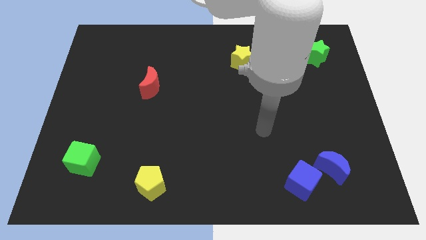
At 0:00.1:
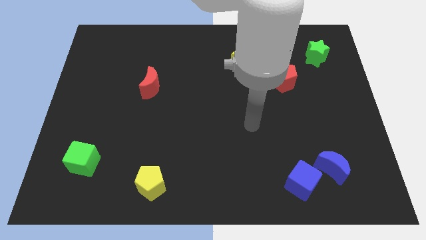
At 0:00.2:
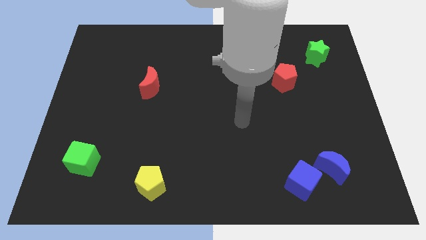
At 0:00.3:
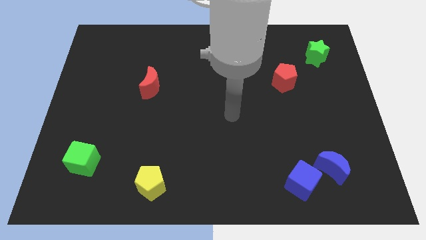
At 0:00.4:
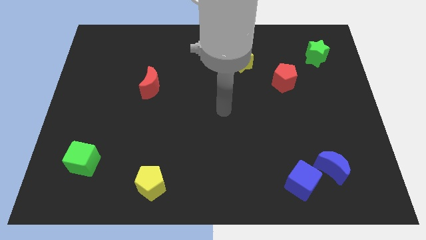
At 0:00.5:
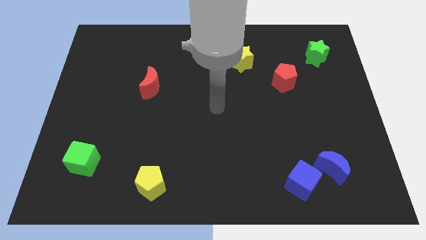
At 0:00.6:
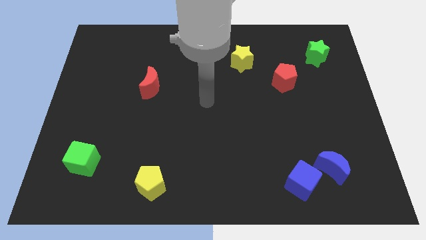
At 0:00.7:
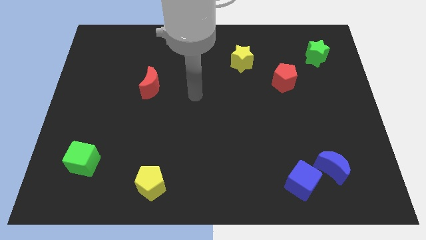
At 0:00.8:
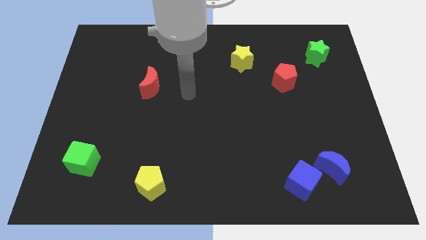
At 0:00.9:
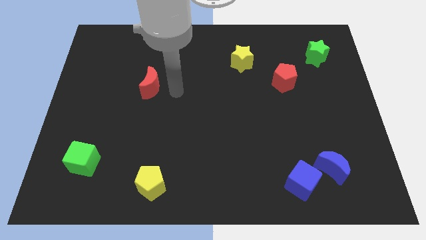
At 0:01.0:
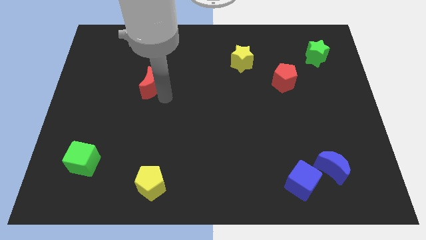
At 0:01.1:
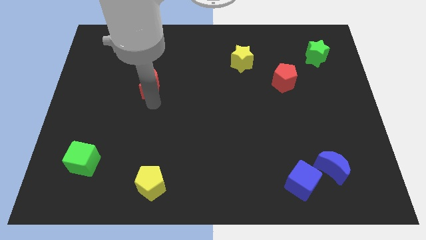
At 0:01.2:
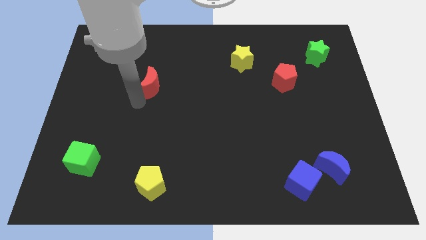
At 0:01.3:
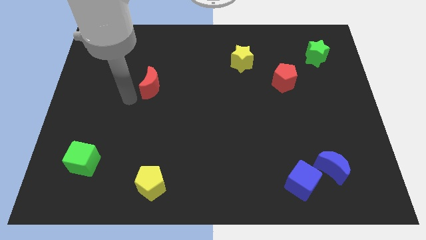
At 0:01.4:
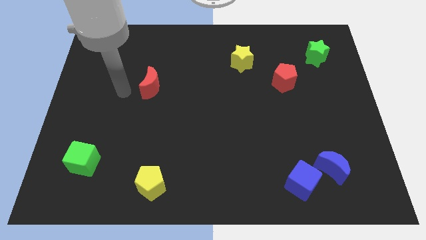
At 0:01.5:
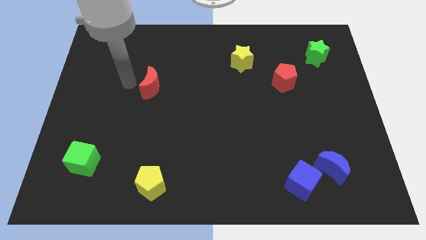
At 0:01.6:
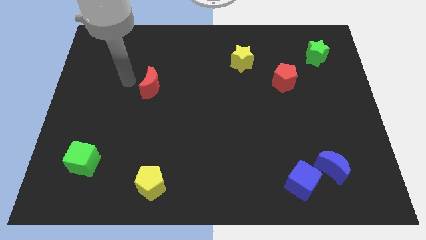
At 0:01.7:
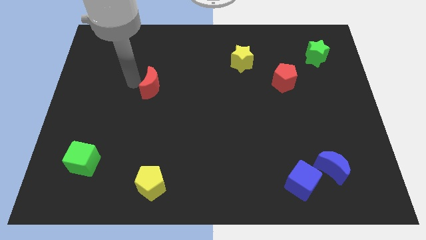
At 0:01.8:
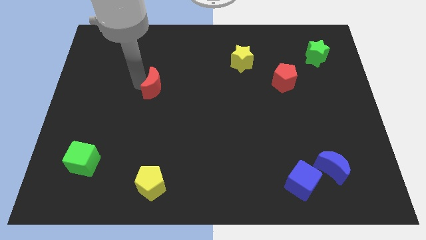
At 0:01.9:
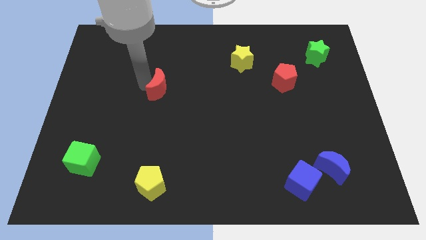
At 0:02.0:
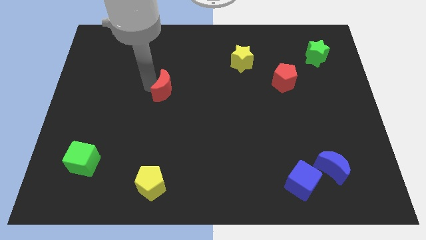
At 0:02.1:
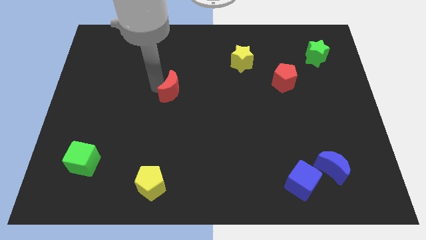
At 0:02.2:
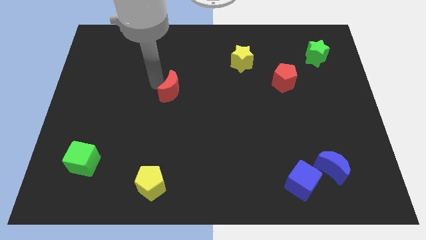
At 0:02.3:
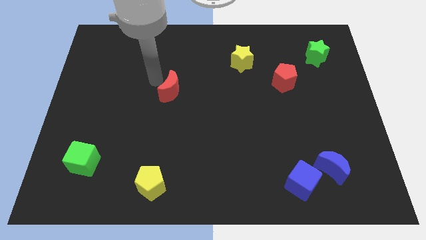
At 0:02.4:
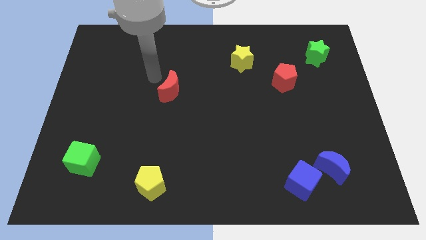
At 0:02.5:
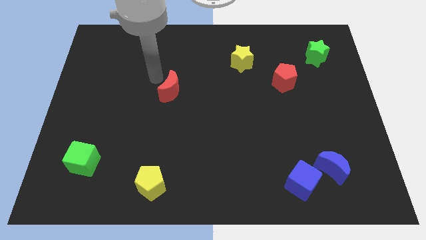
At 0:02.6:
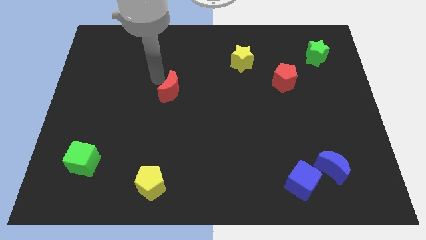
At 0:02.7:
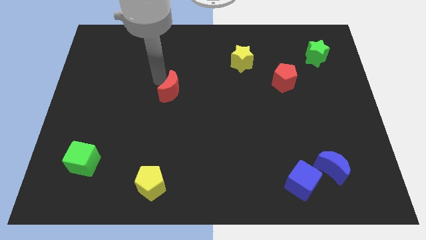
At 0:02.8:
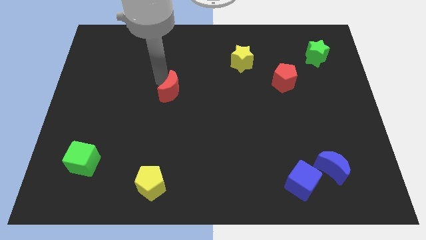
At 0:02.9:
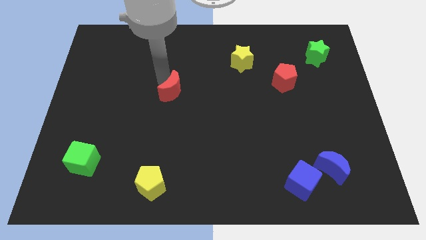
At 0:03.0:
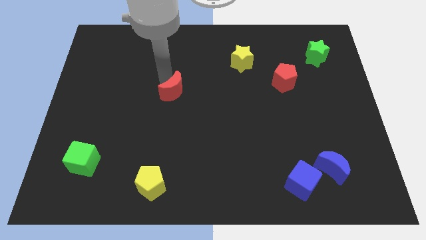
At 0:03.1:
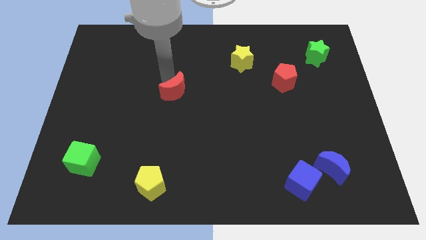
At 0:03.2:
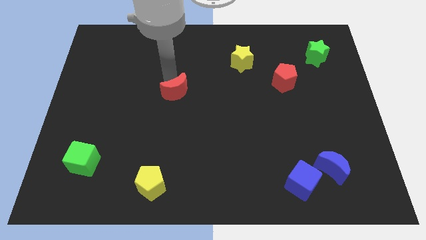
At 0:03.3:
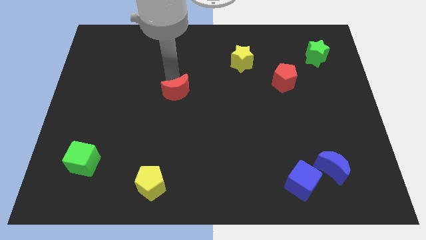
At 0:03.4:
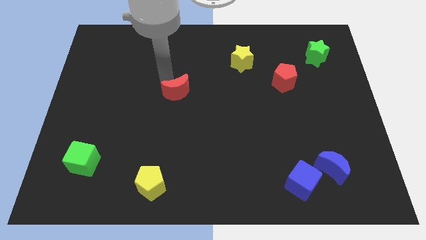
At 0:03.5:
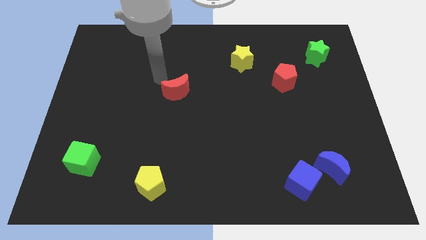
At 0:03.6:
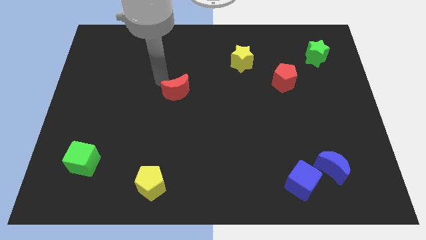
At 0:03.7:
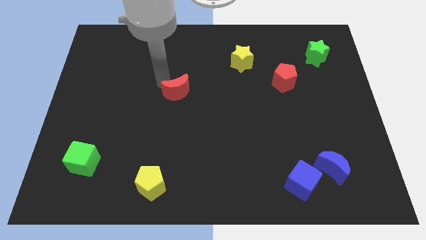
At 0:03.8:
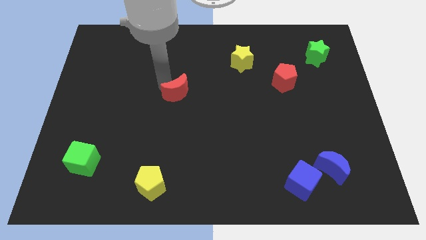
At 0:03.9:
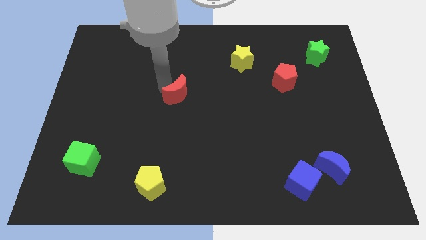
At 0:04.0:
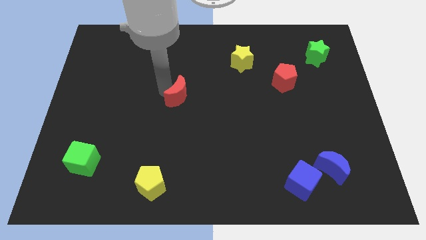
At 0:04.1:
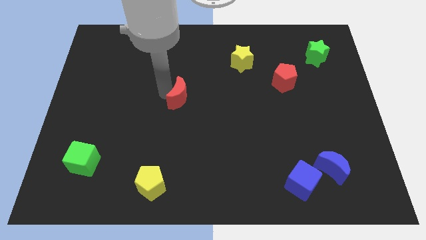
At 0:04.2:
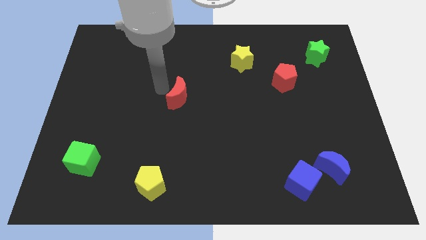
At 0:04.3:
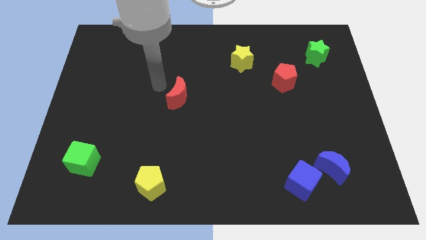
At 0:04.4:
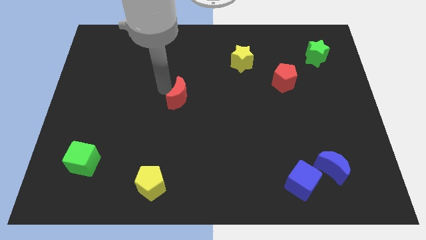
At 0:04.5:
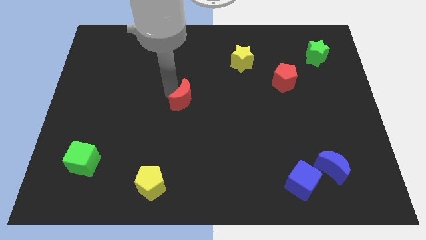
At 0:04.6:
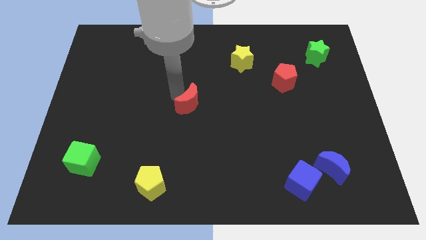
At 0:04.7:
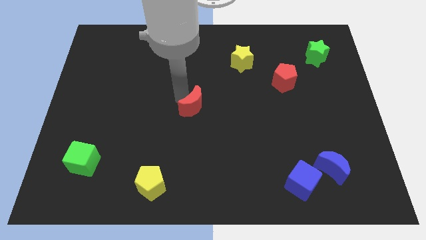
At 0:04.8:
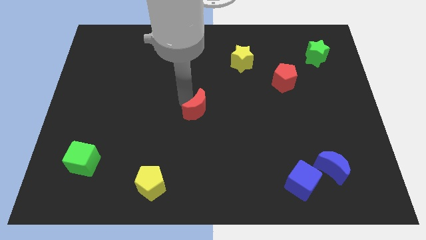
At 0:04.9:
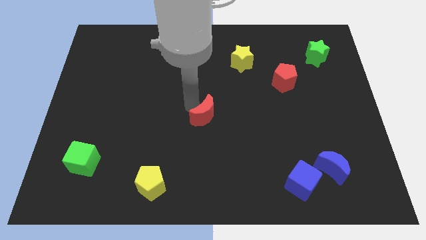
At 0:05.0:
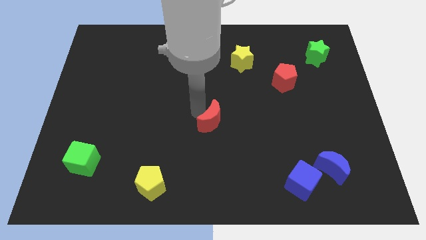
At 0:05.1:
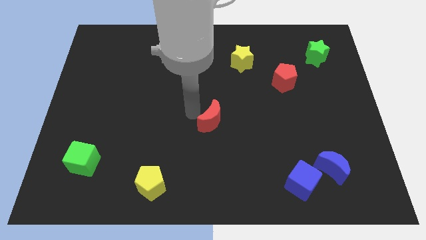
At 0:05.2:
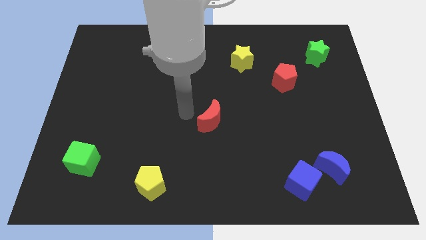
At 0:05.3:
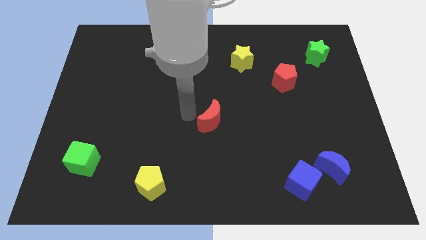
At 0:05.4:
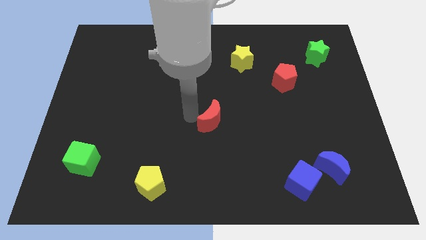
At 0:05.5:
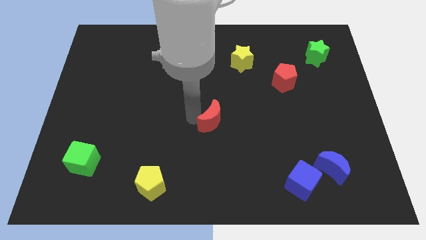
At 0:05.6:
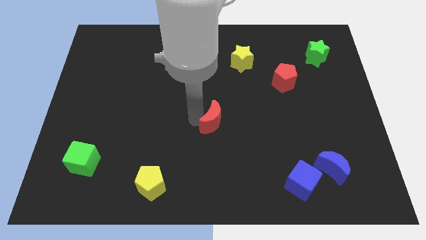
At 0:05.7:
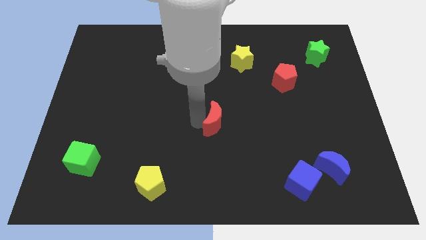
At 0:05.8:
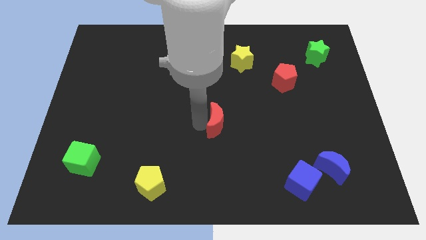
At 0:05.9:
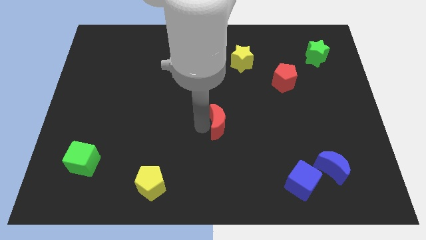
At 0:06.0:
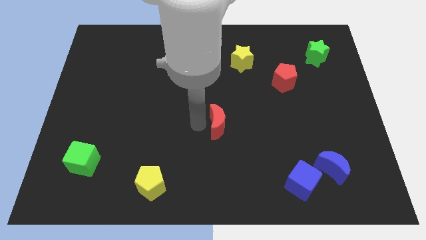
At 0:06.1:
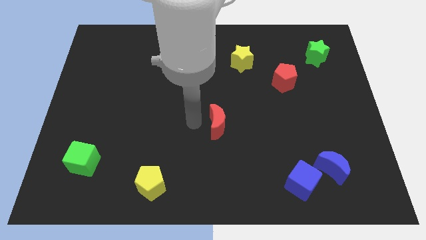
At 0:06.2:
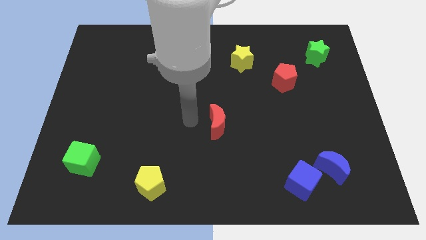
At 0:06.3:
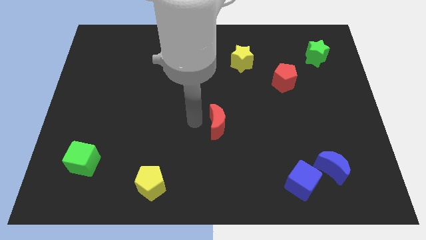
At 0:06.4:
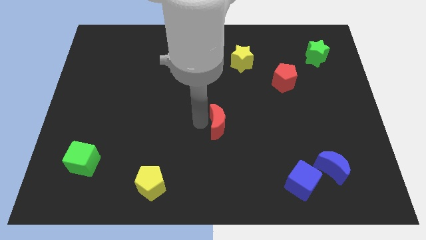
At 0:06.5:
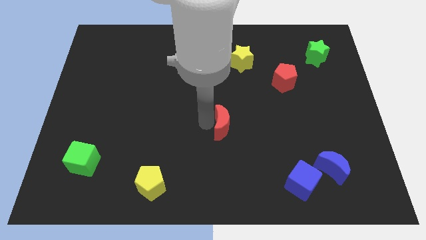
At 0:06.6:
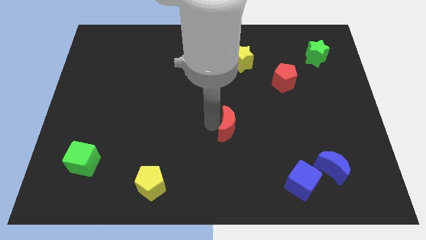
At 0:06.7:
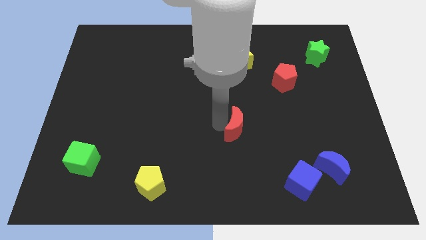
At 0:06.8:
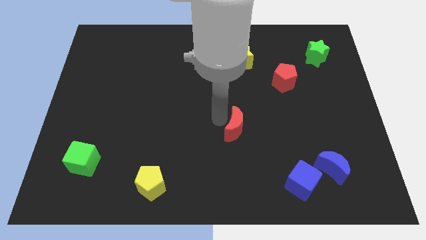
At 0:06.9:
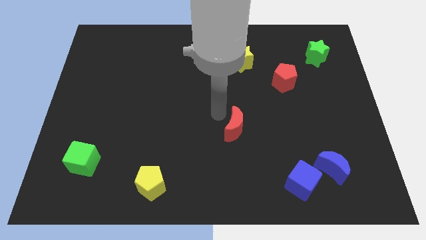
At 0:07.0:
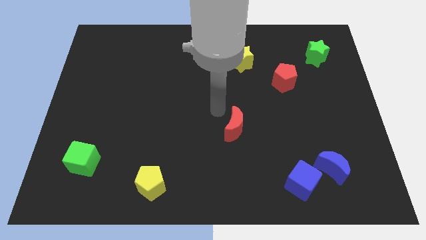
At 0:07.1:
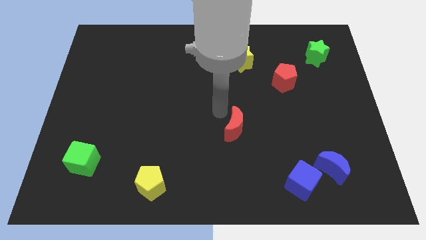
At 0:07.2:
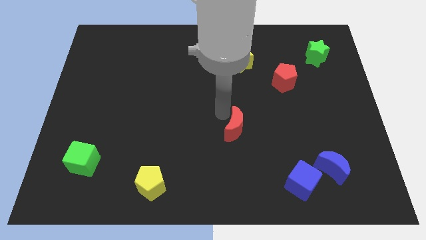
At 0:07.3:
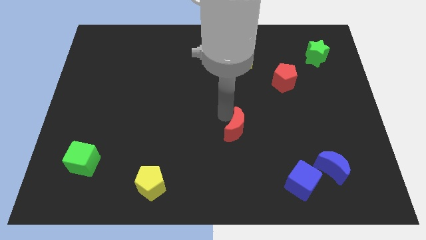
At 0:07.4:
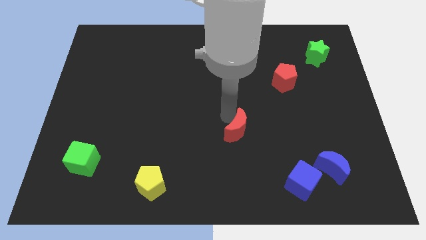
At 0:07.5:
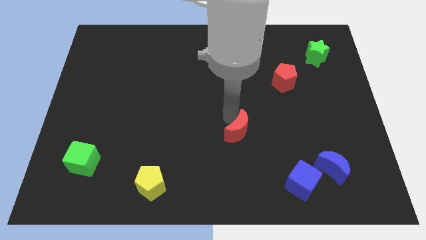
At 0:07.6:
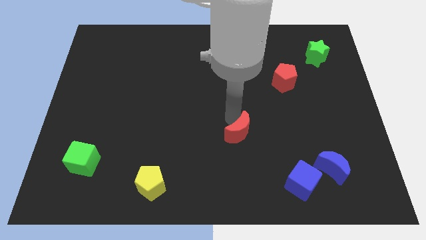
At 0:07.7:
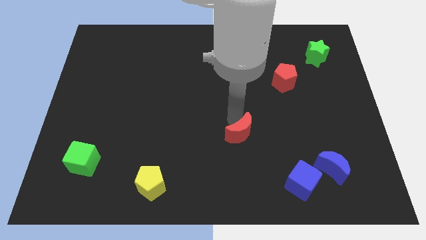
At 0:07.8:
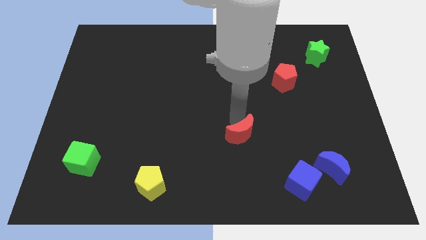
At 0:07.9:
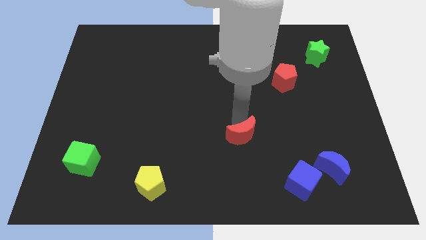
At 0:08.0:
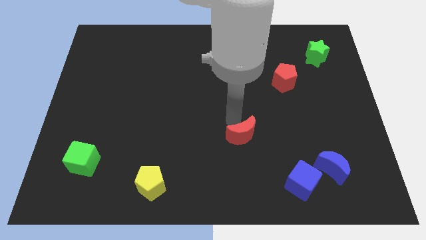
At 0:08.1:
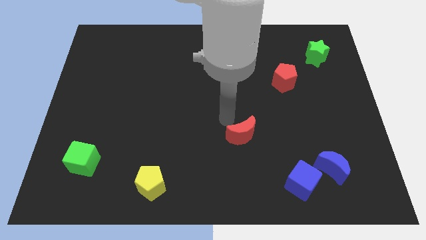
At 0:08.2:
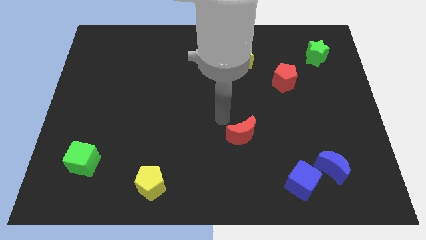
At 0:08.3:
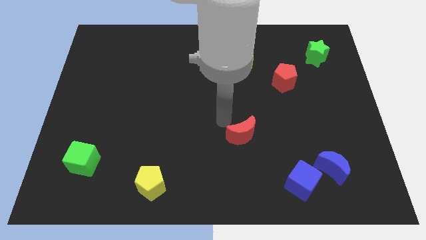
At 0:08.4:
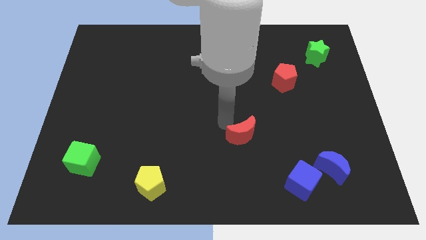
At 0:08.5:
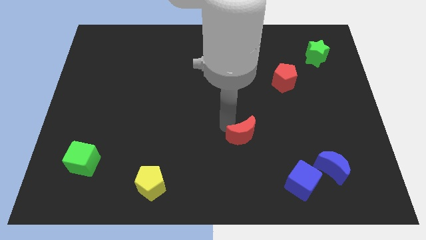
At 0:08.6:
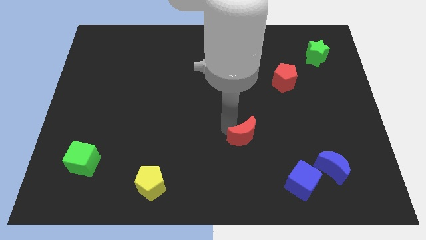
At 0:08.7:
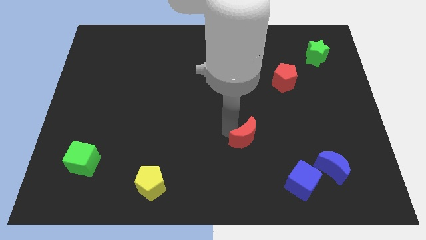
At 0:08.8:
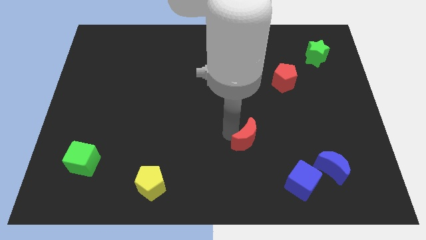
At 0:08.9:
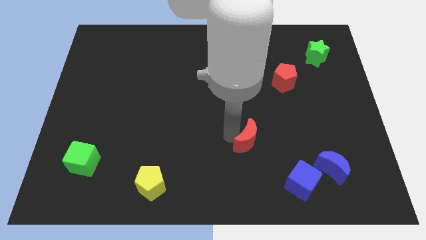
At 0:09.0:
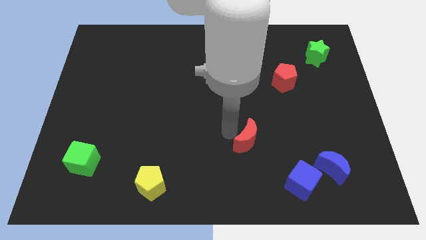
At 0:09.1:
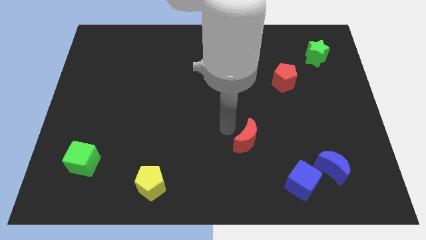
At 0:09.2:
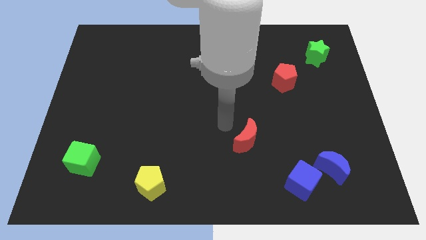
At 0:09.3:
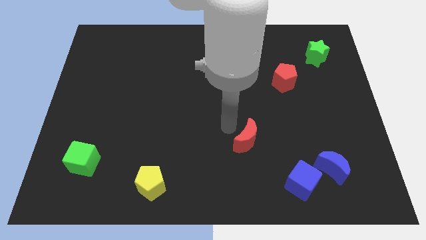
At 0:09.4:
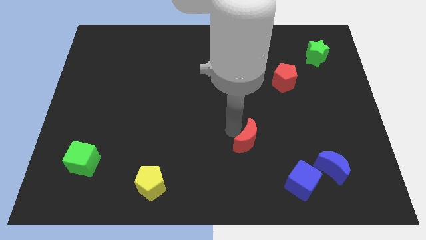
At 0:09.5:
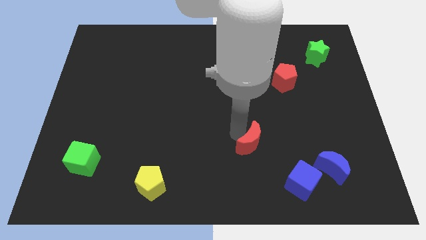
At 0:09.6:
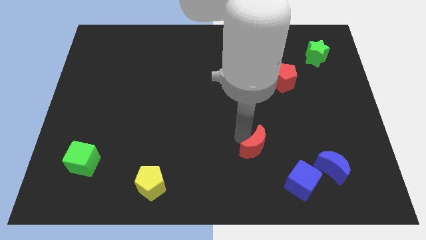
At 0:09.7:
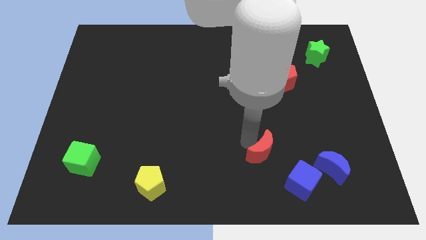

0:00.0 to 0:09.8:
push the red moon to the left side of the blue moon
